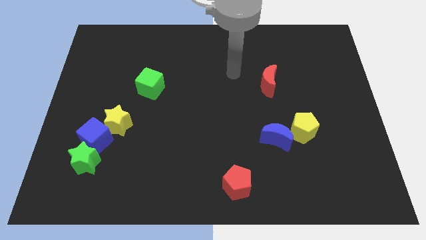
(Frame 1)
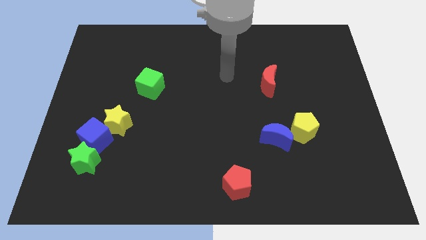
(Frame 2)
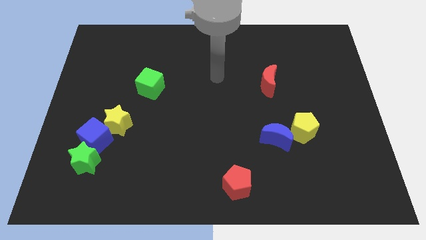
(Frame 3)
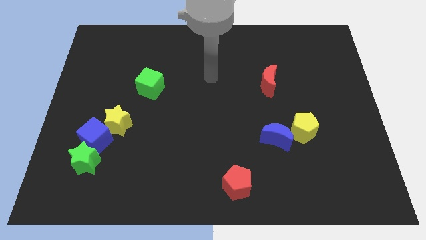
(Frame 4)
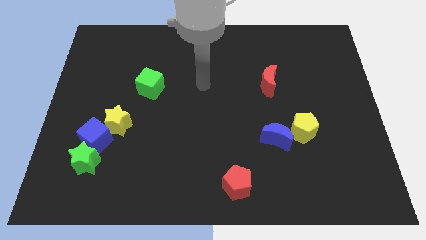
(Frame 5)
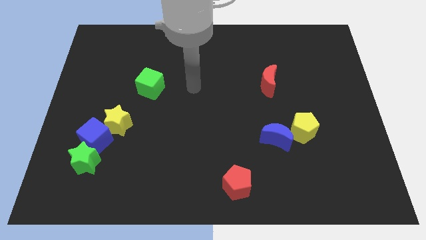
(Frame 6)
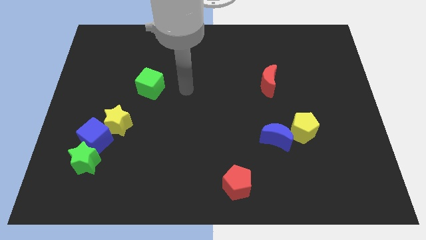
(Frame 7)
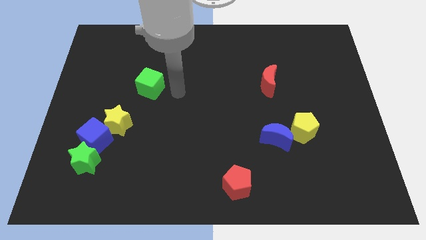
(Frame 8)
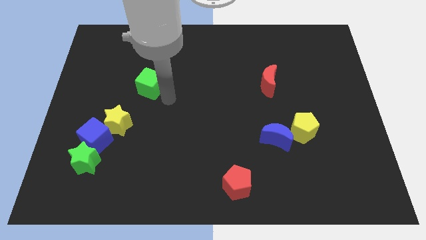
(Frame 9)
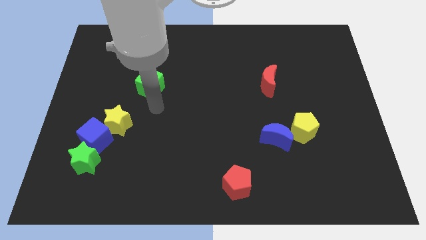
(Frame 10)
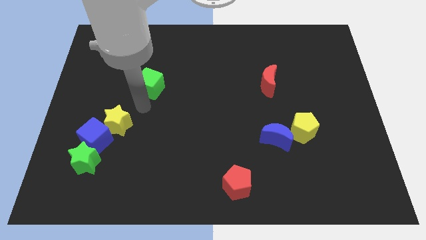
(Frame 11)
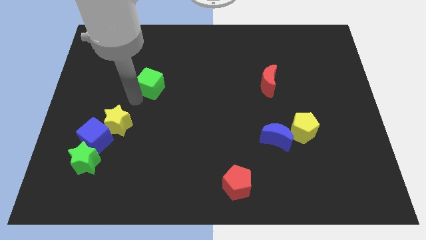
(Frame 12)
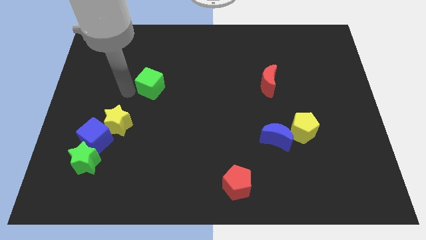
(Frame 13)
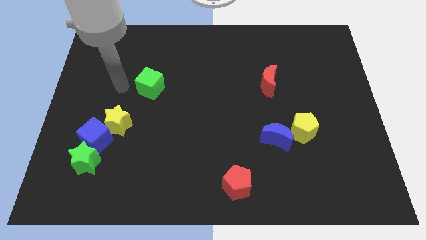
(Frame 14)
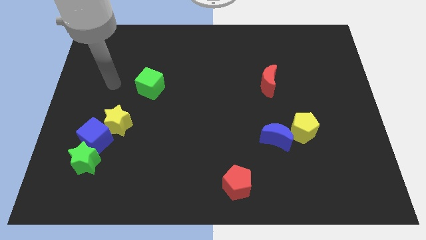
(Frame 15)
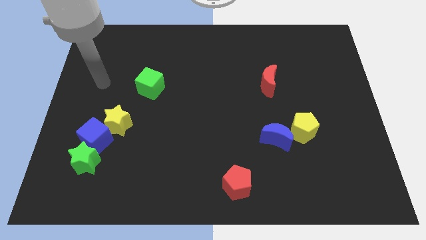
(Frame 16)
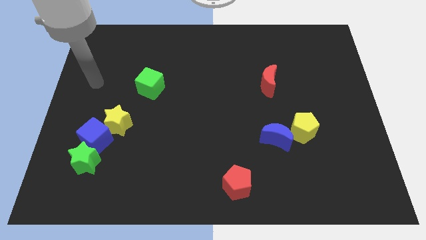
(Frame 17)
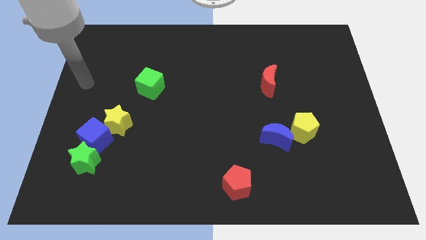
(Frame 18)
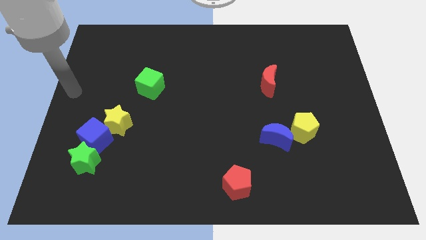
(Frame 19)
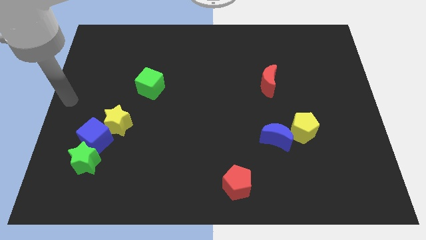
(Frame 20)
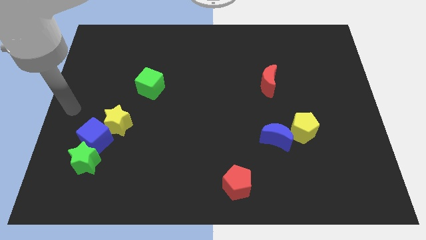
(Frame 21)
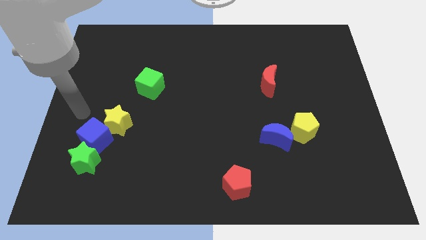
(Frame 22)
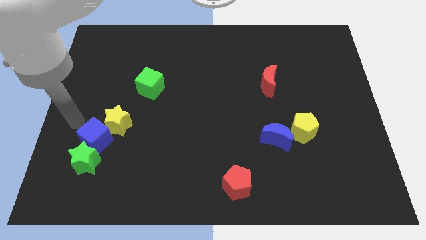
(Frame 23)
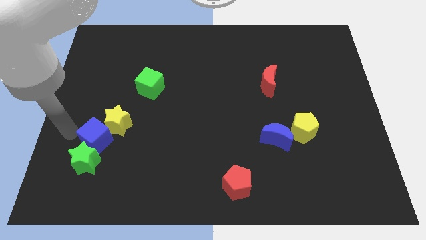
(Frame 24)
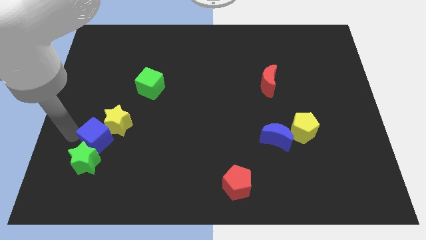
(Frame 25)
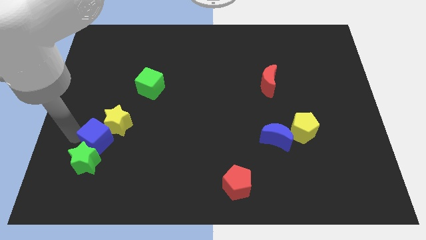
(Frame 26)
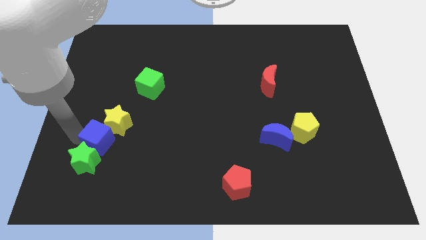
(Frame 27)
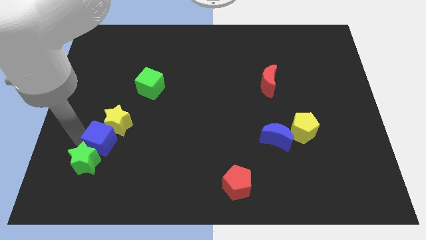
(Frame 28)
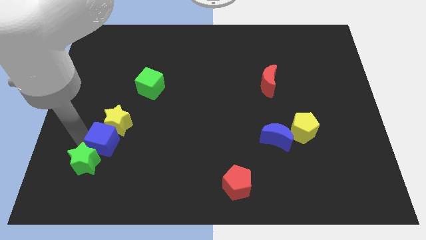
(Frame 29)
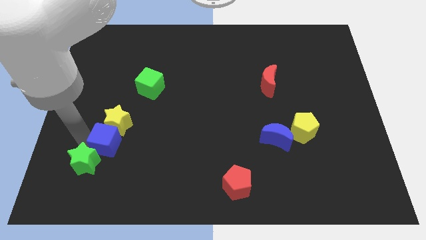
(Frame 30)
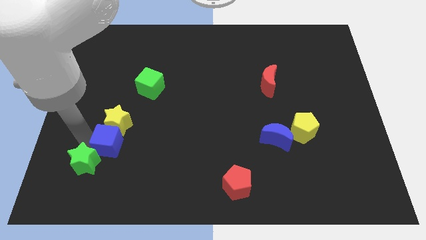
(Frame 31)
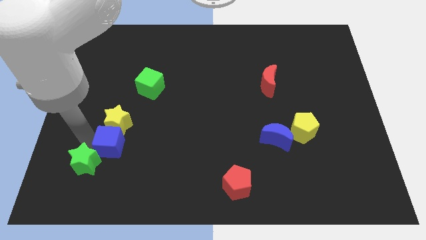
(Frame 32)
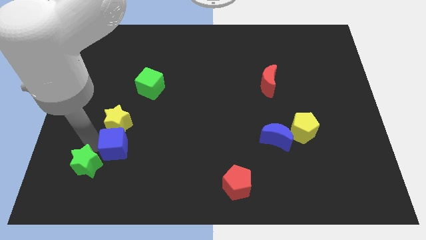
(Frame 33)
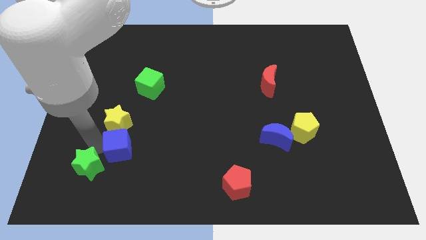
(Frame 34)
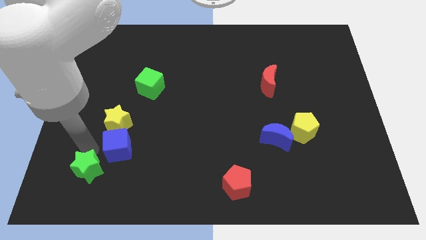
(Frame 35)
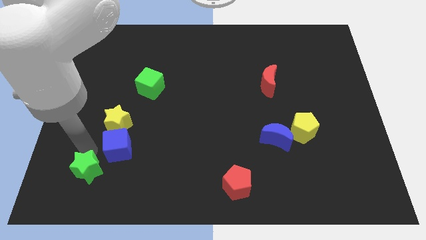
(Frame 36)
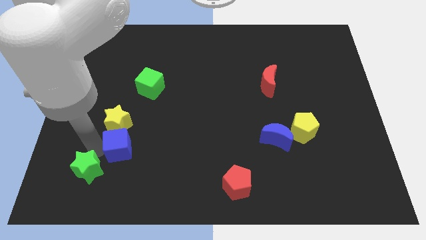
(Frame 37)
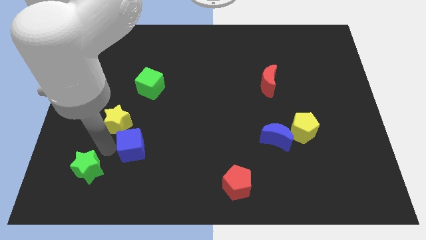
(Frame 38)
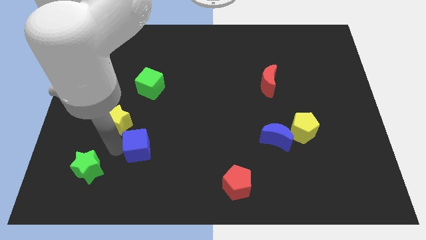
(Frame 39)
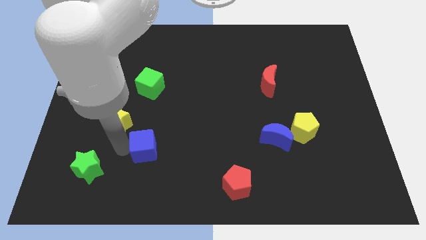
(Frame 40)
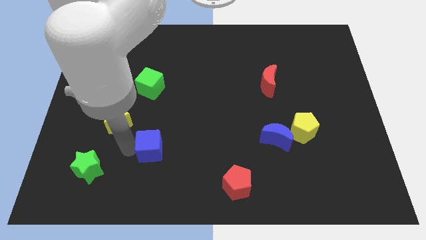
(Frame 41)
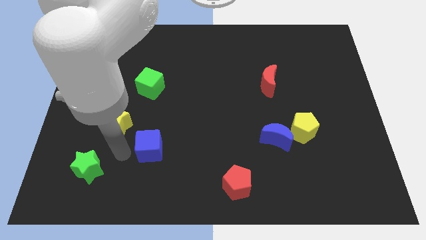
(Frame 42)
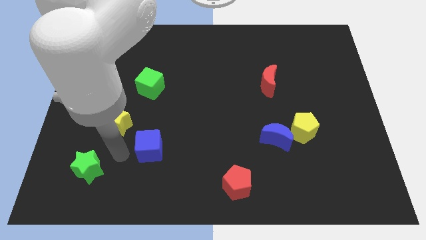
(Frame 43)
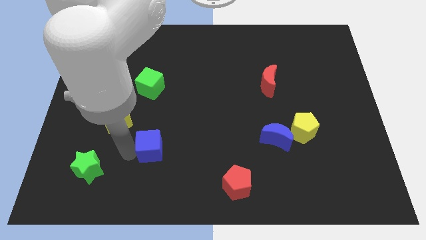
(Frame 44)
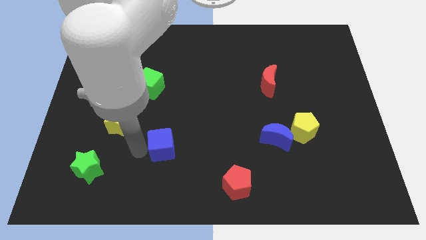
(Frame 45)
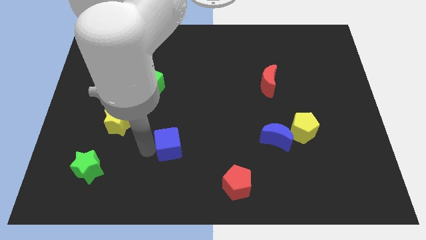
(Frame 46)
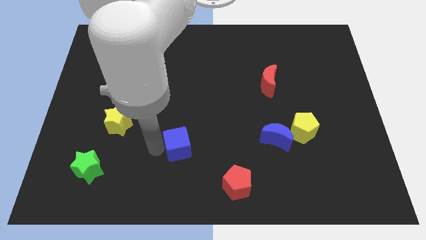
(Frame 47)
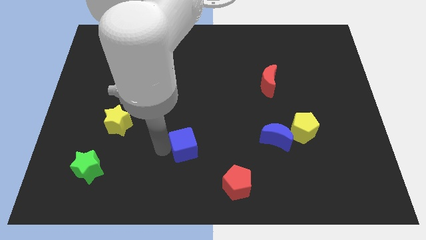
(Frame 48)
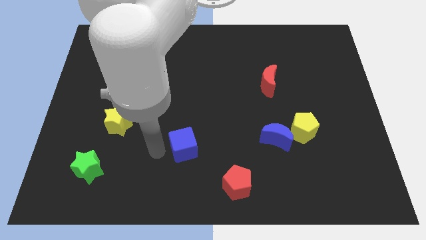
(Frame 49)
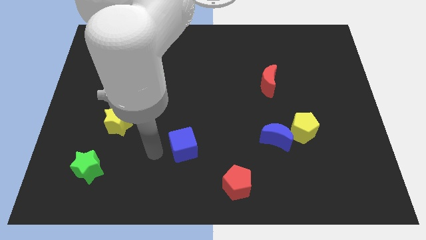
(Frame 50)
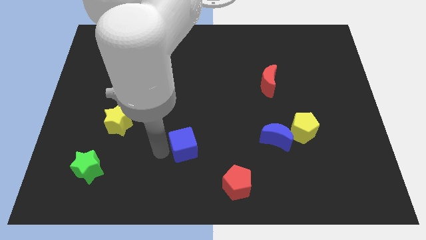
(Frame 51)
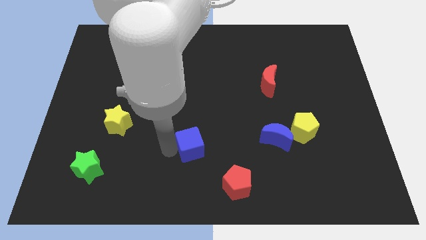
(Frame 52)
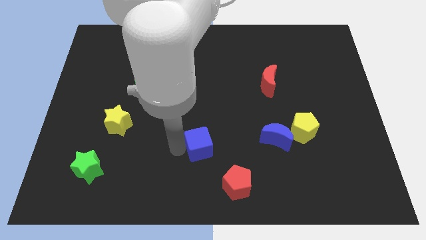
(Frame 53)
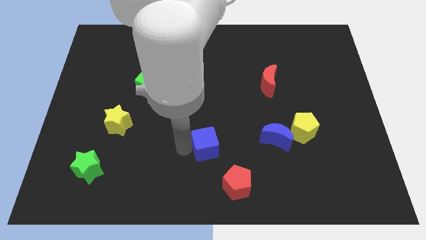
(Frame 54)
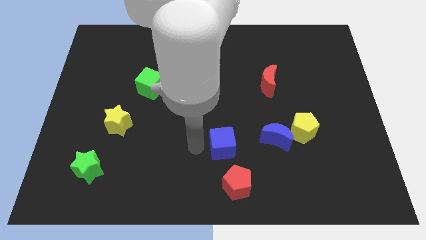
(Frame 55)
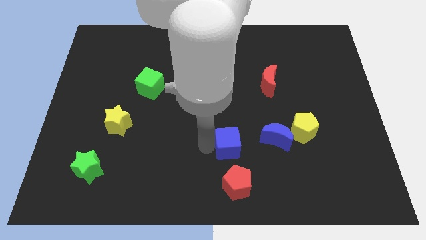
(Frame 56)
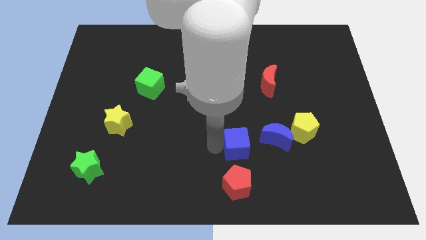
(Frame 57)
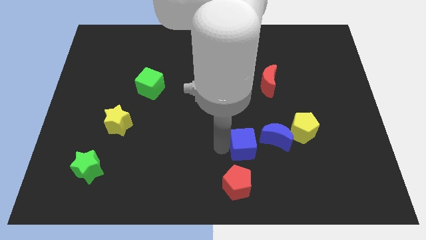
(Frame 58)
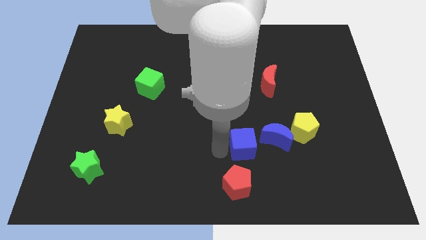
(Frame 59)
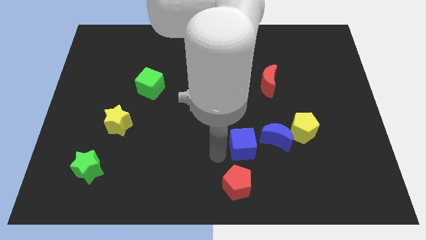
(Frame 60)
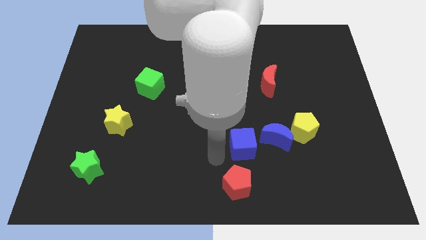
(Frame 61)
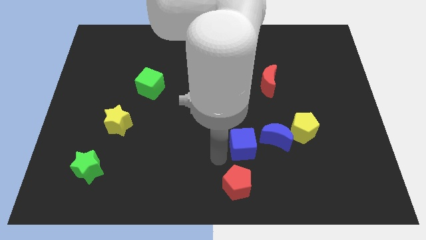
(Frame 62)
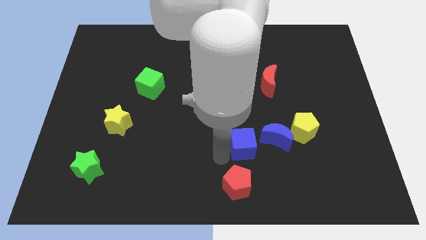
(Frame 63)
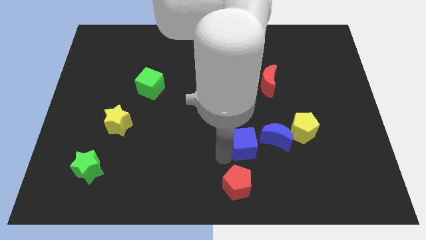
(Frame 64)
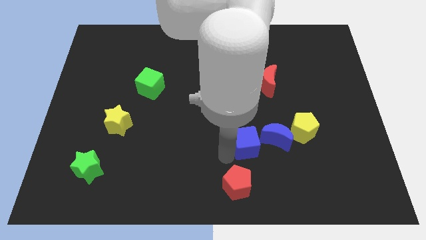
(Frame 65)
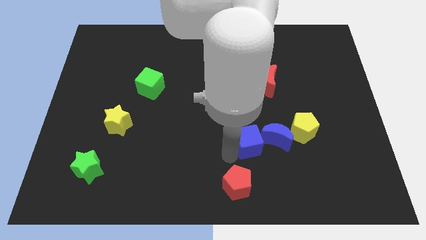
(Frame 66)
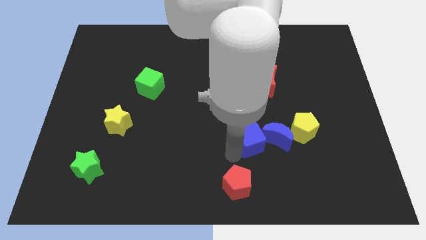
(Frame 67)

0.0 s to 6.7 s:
move the blue cube towards the blue moon

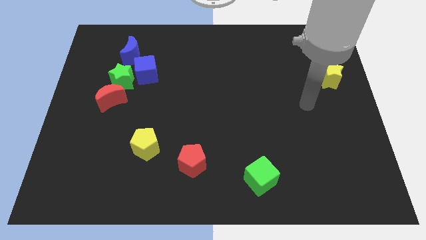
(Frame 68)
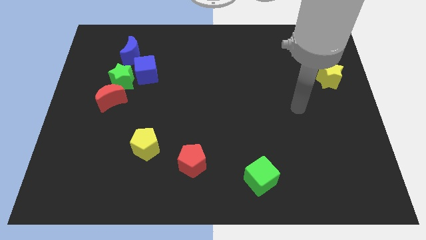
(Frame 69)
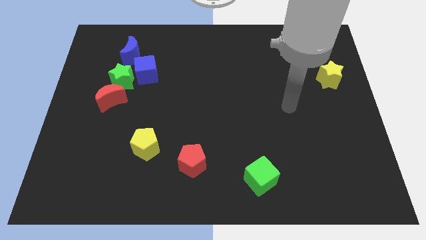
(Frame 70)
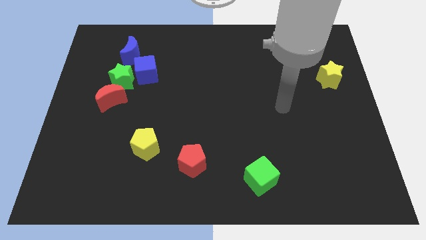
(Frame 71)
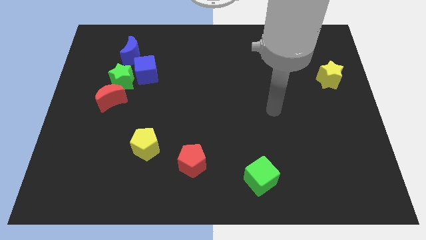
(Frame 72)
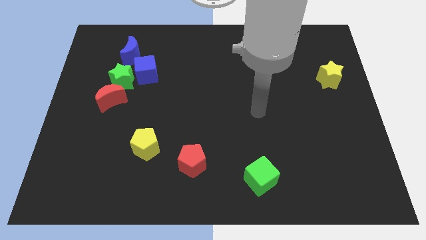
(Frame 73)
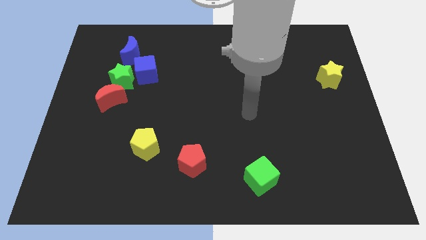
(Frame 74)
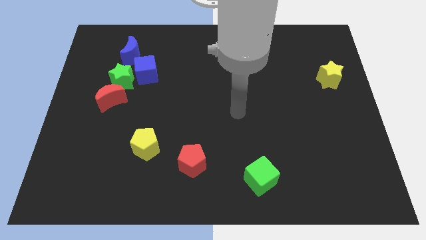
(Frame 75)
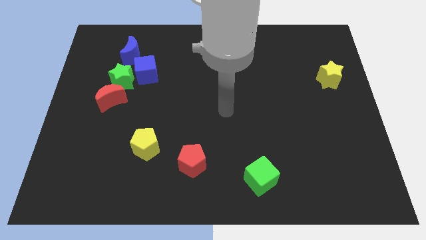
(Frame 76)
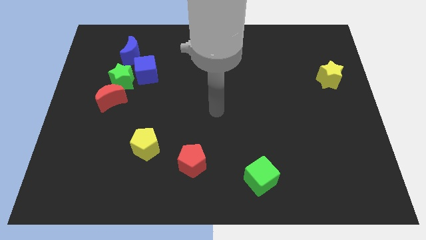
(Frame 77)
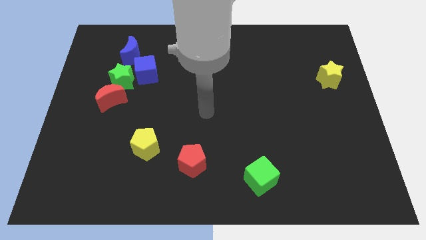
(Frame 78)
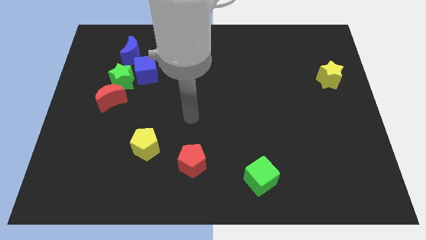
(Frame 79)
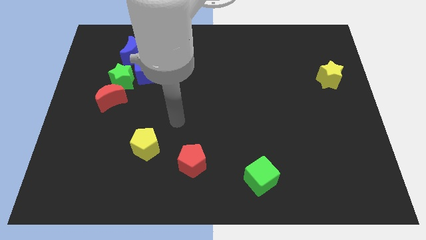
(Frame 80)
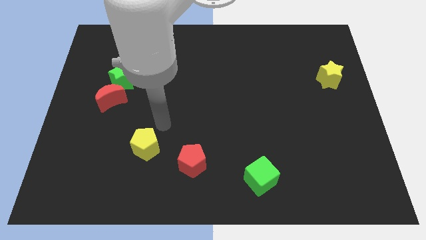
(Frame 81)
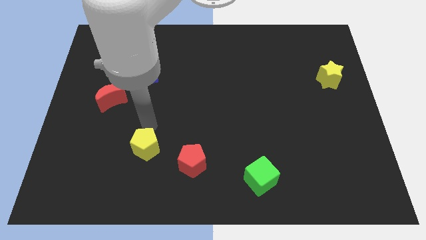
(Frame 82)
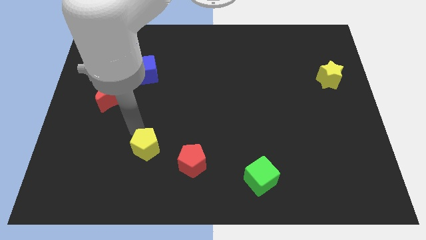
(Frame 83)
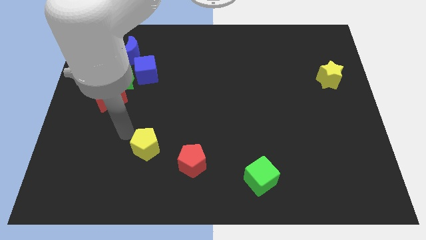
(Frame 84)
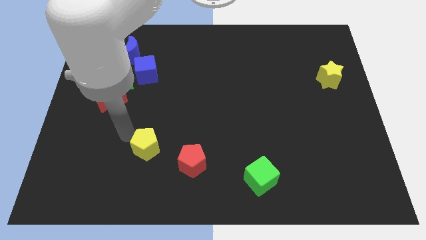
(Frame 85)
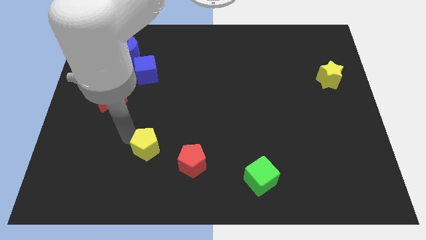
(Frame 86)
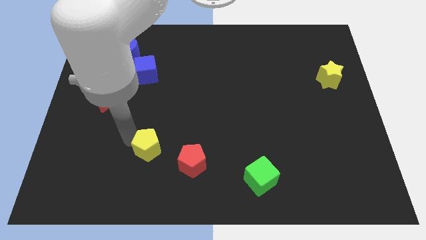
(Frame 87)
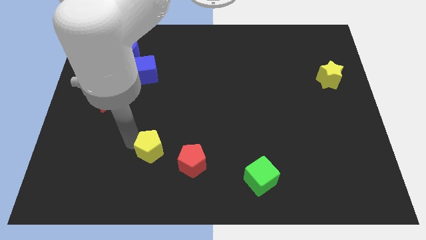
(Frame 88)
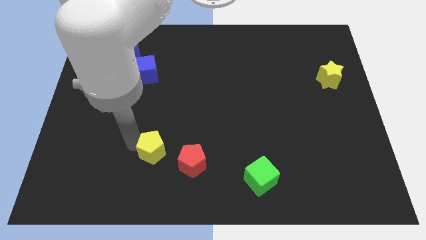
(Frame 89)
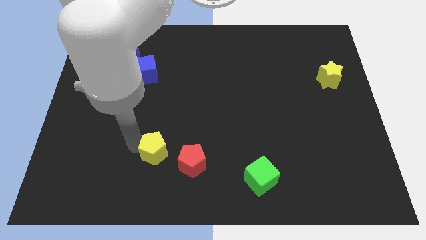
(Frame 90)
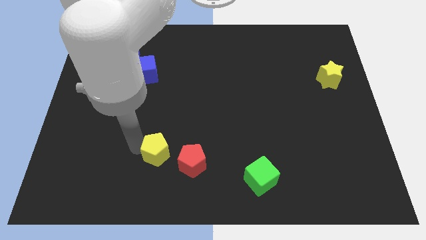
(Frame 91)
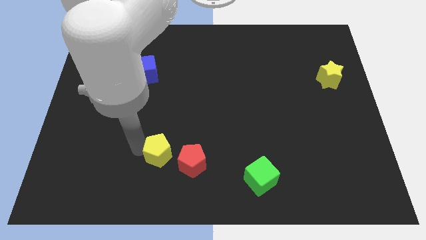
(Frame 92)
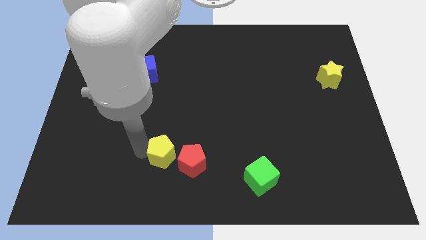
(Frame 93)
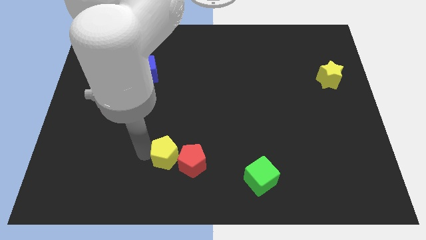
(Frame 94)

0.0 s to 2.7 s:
push the yellow pentagon towards the red pentagon
